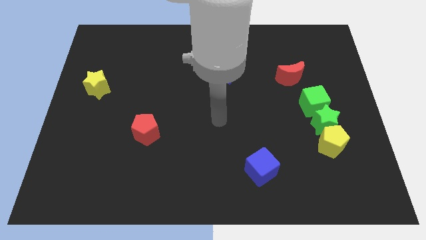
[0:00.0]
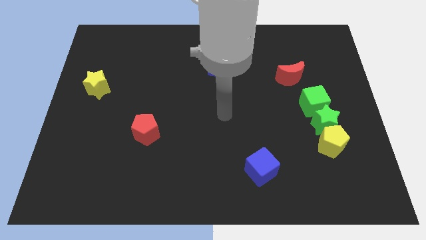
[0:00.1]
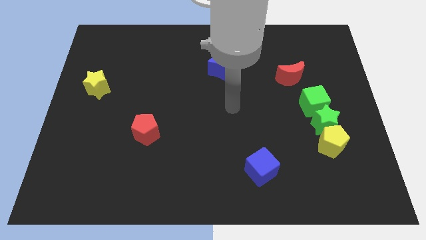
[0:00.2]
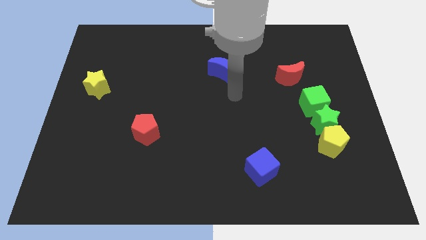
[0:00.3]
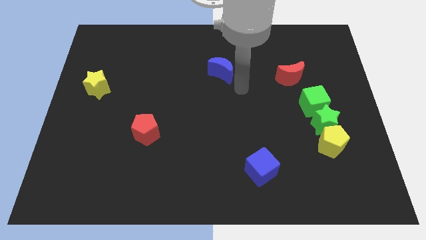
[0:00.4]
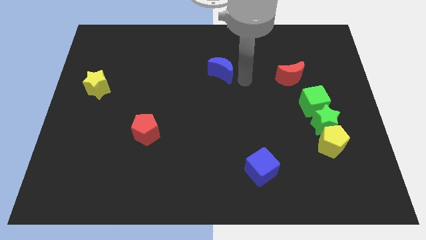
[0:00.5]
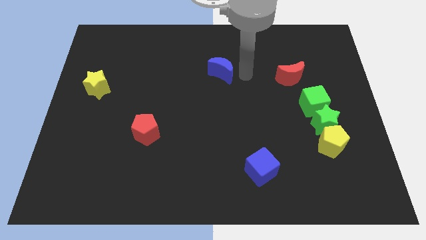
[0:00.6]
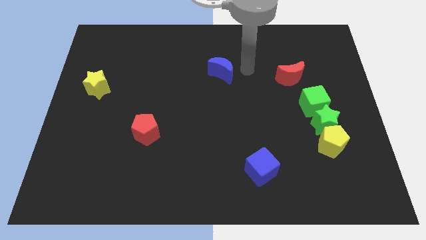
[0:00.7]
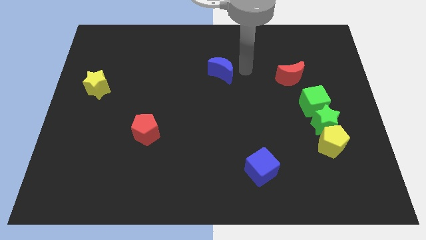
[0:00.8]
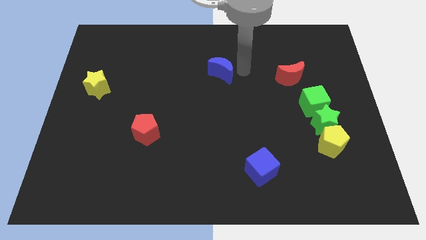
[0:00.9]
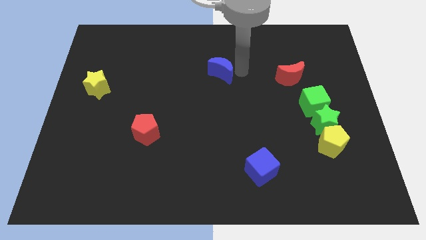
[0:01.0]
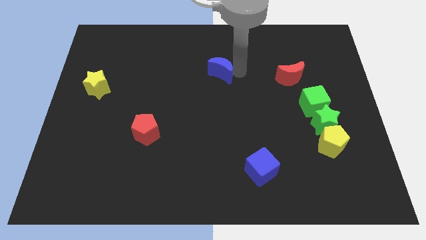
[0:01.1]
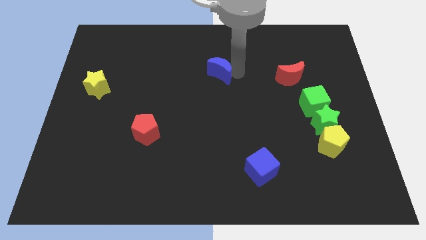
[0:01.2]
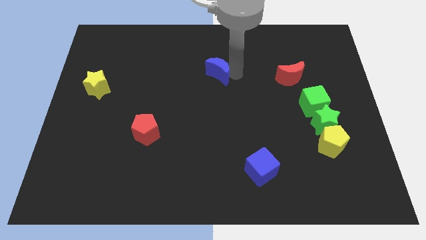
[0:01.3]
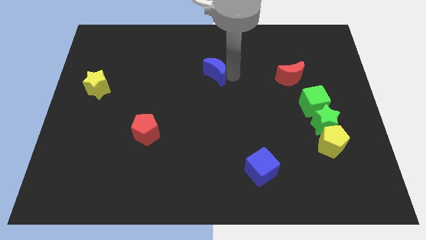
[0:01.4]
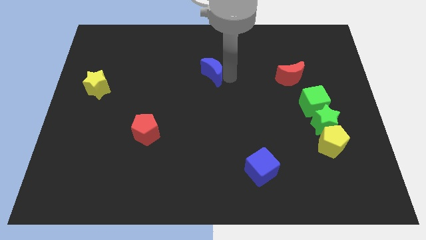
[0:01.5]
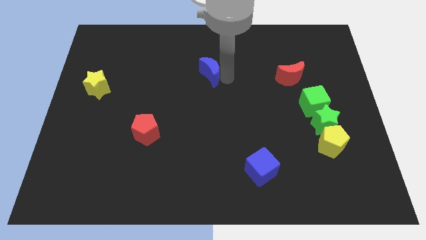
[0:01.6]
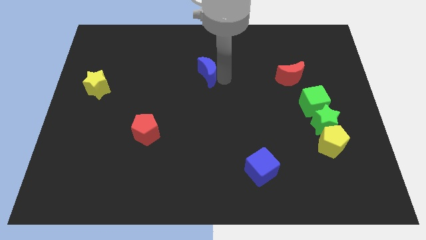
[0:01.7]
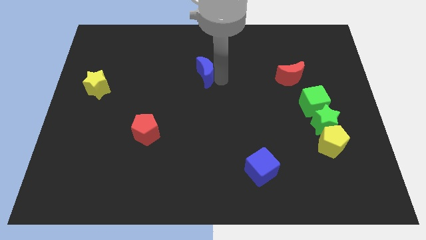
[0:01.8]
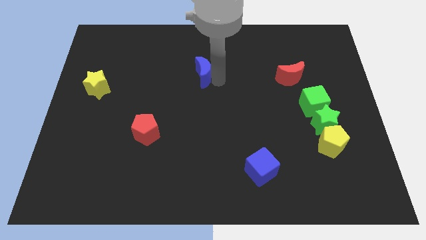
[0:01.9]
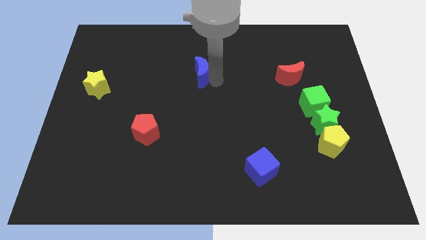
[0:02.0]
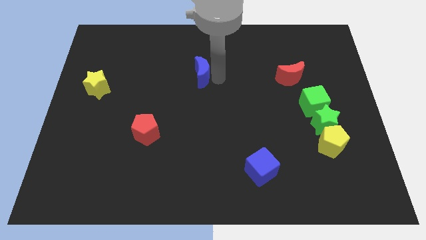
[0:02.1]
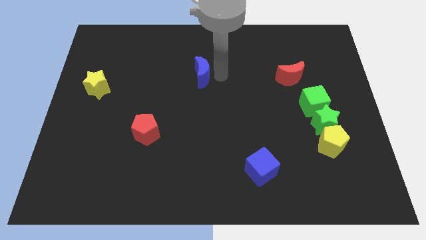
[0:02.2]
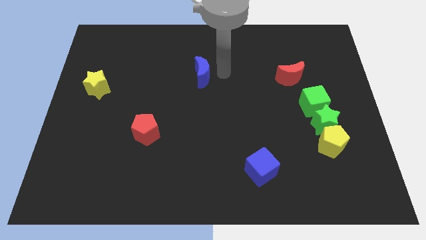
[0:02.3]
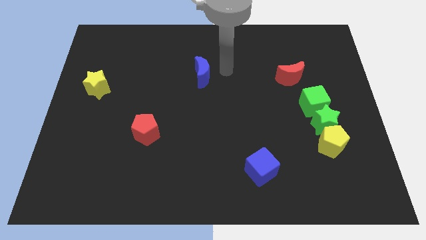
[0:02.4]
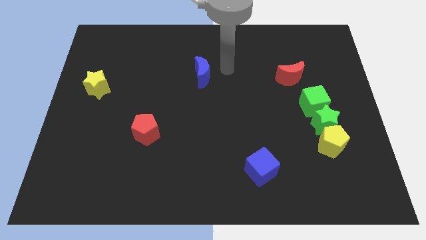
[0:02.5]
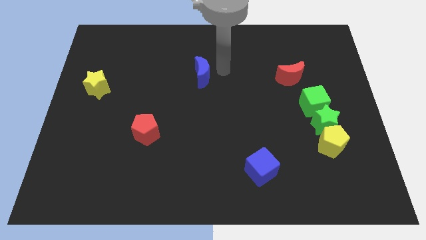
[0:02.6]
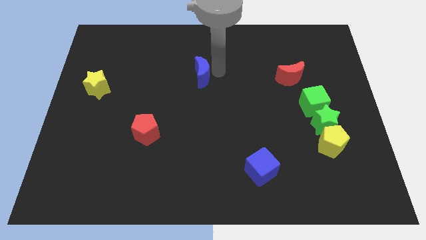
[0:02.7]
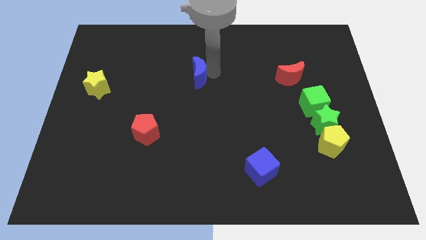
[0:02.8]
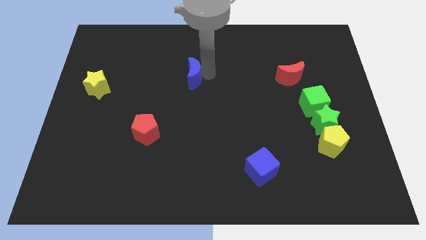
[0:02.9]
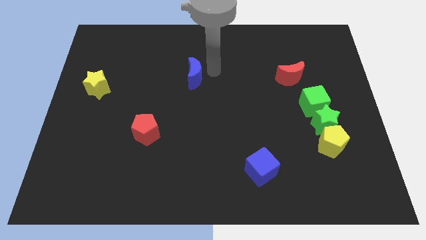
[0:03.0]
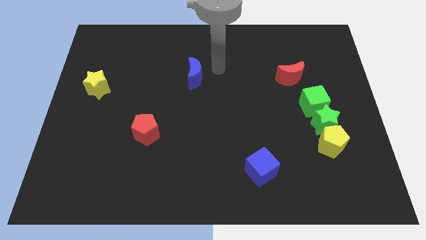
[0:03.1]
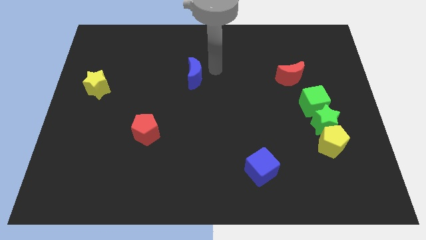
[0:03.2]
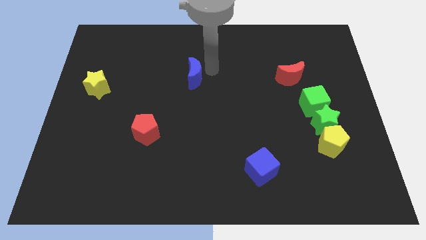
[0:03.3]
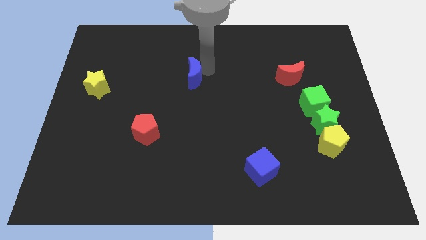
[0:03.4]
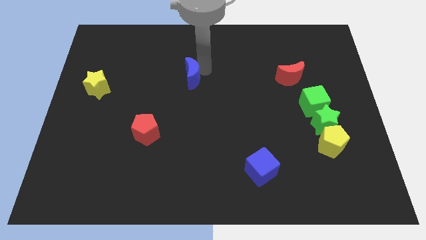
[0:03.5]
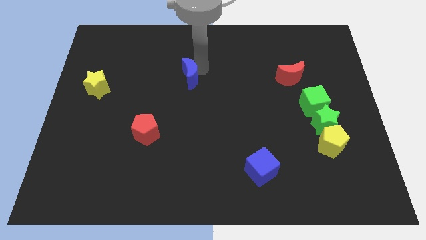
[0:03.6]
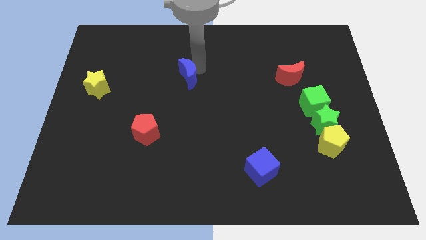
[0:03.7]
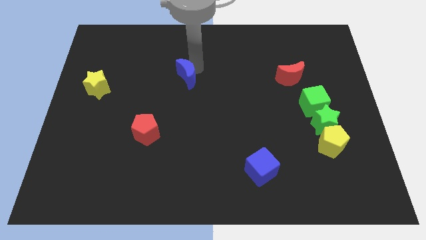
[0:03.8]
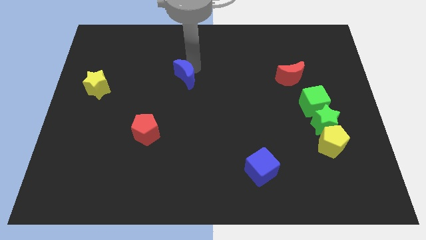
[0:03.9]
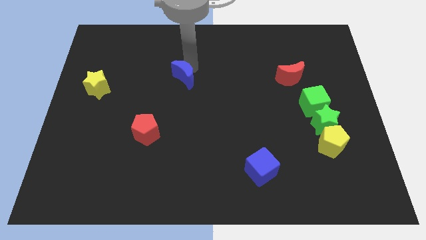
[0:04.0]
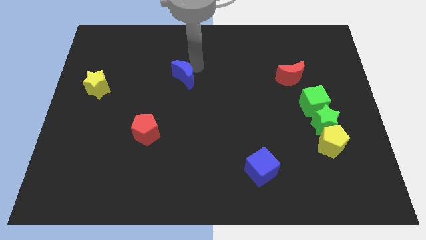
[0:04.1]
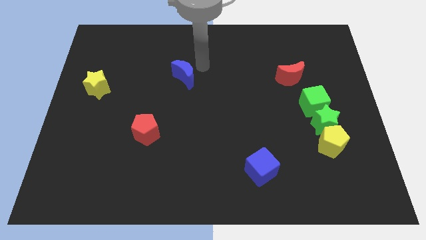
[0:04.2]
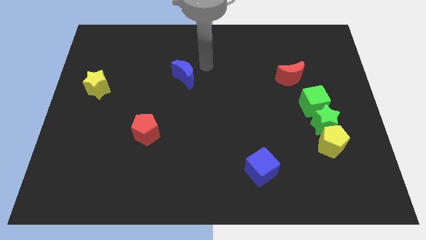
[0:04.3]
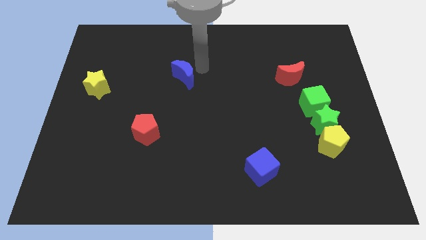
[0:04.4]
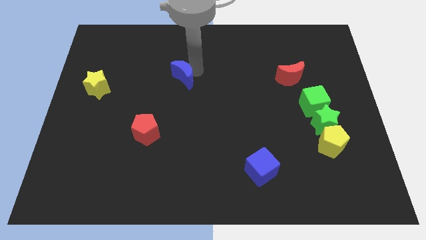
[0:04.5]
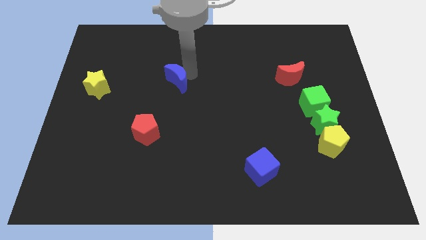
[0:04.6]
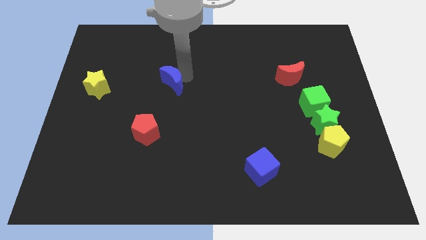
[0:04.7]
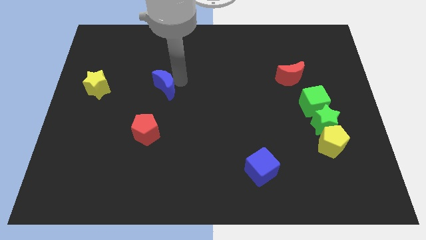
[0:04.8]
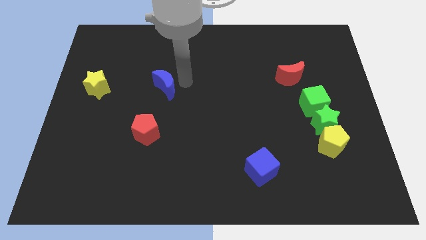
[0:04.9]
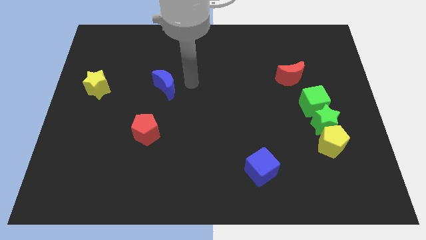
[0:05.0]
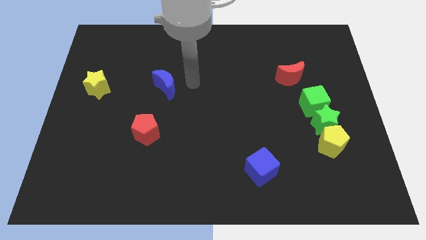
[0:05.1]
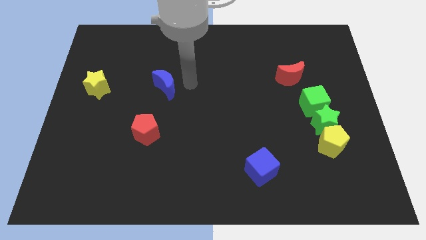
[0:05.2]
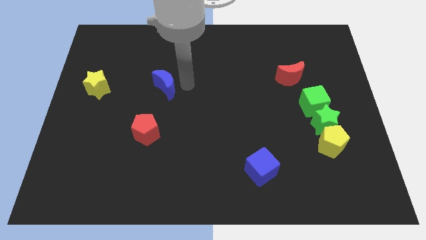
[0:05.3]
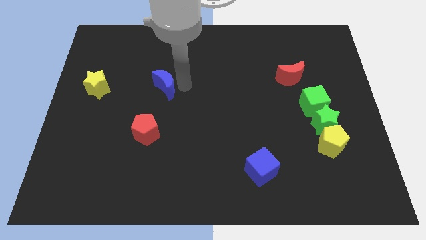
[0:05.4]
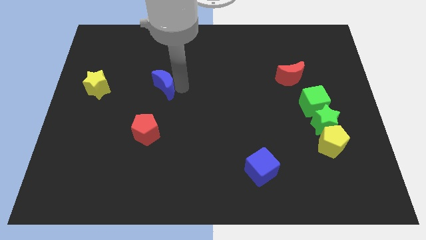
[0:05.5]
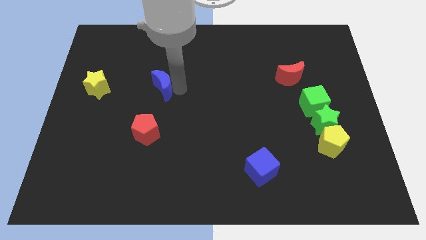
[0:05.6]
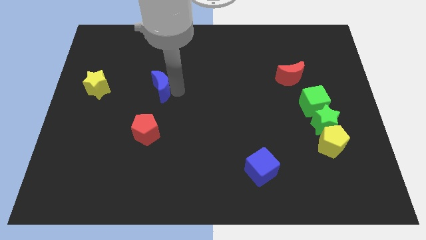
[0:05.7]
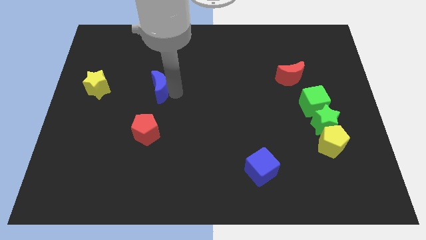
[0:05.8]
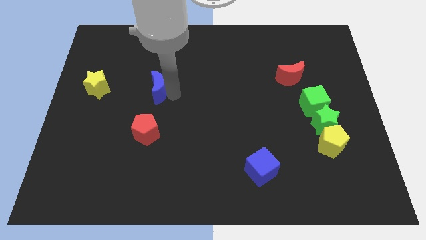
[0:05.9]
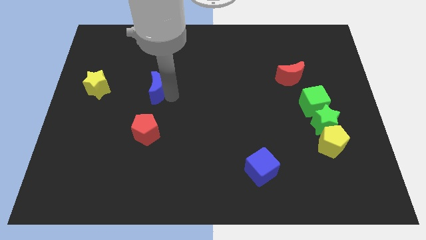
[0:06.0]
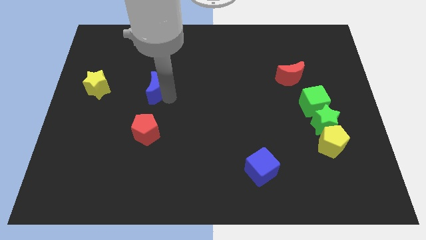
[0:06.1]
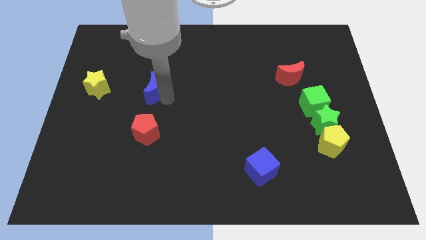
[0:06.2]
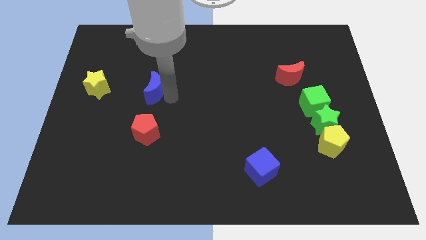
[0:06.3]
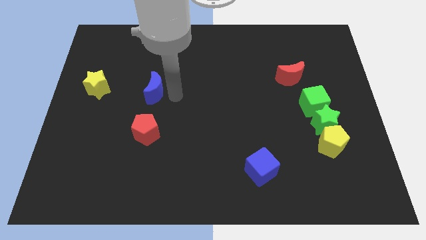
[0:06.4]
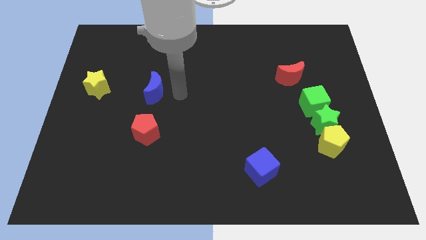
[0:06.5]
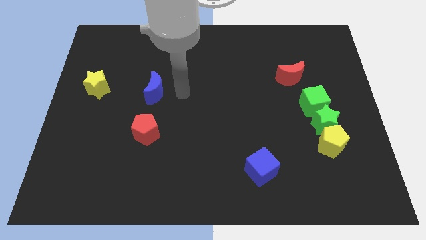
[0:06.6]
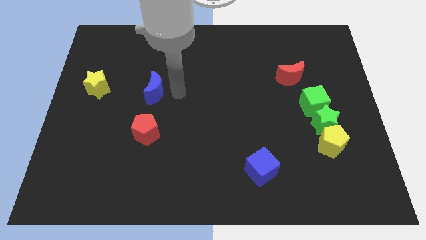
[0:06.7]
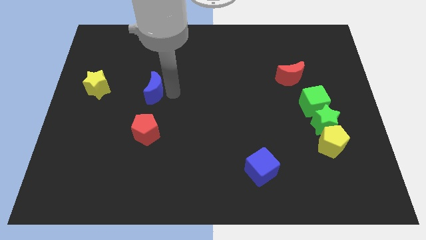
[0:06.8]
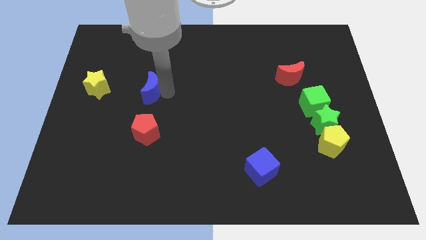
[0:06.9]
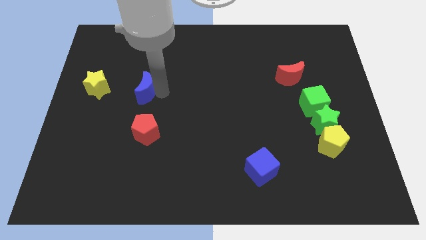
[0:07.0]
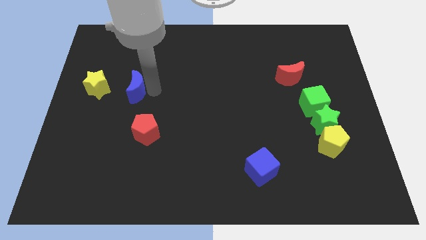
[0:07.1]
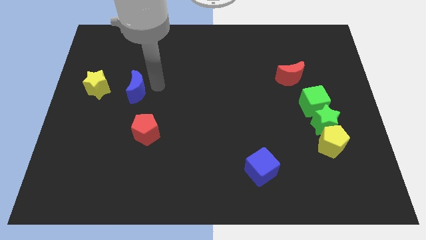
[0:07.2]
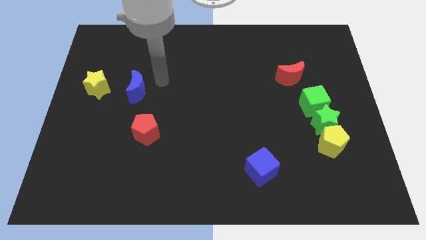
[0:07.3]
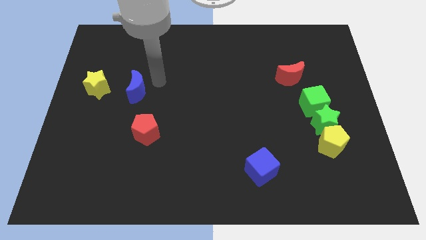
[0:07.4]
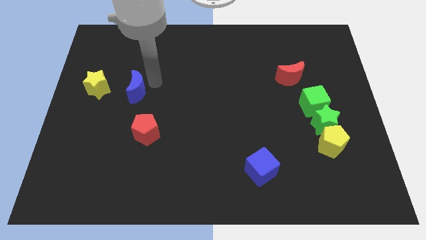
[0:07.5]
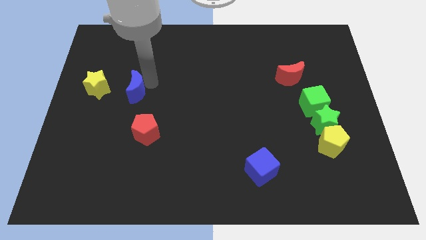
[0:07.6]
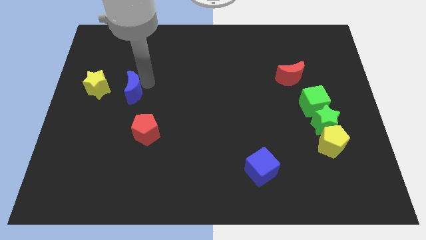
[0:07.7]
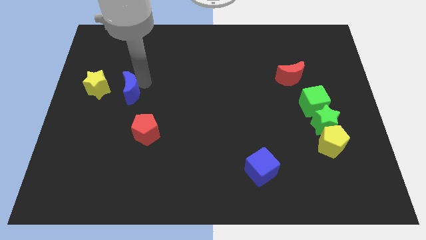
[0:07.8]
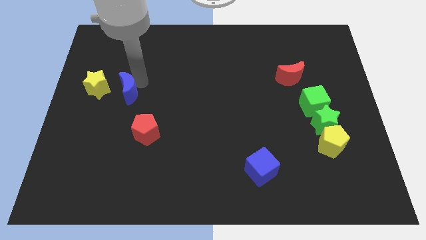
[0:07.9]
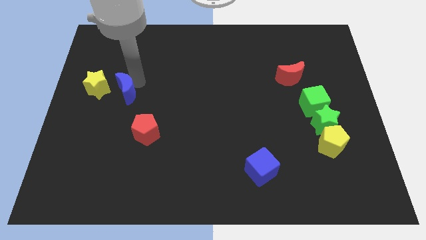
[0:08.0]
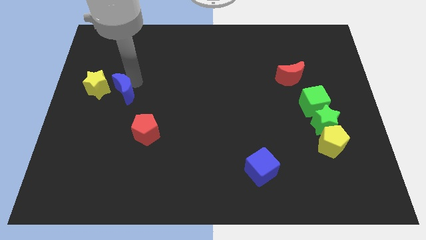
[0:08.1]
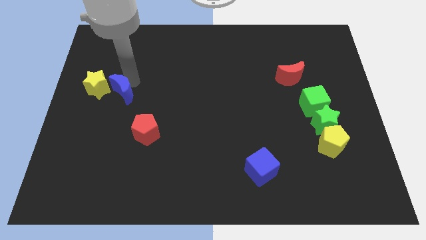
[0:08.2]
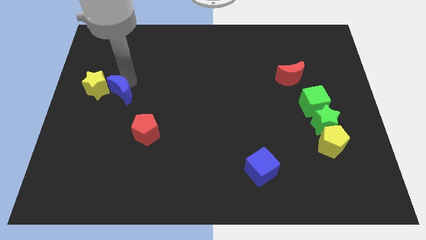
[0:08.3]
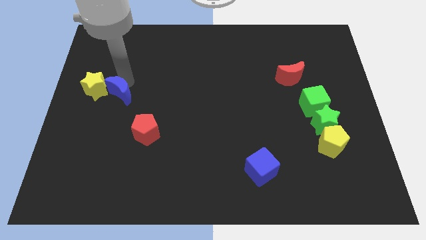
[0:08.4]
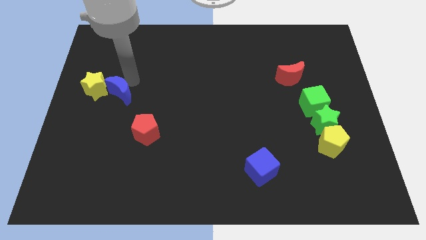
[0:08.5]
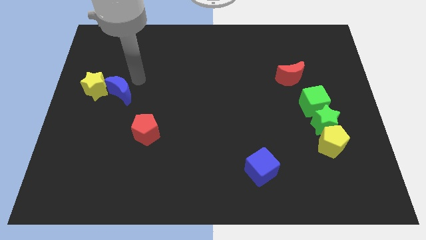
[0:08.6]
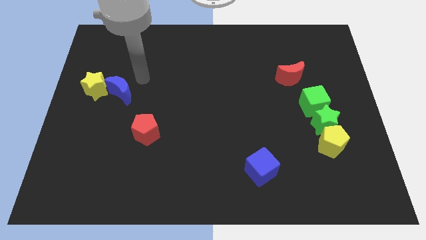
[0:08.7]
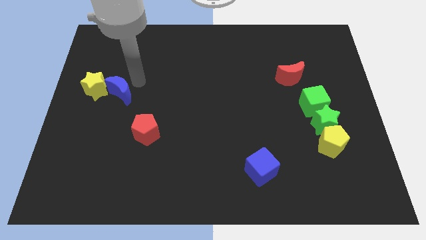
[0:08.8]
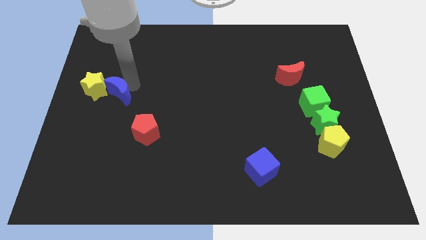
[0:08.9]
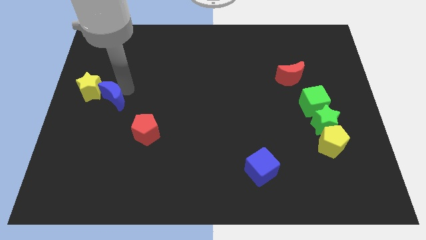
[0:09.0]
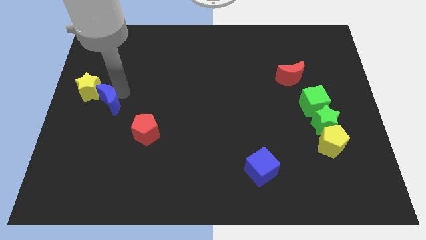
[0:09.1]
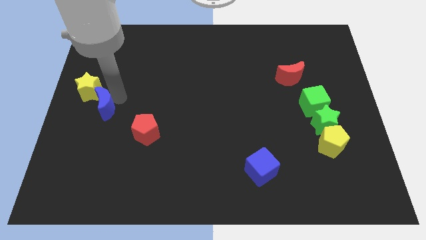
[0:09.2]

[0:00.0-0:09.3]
move the blue moon to the left side
